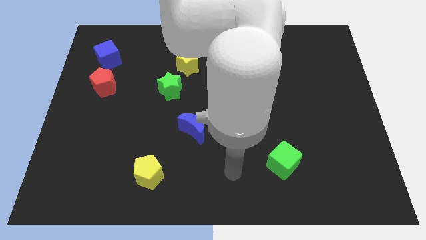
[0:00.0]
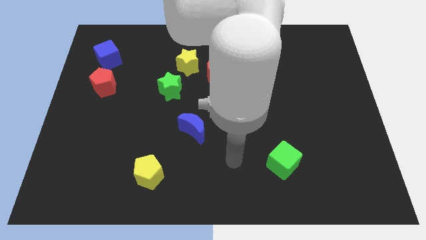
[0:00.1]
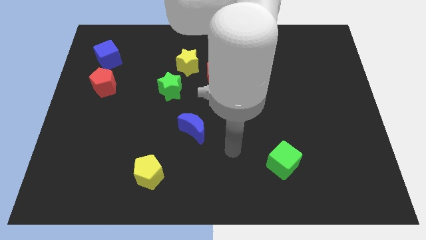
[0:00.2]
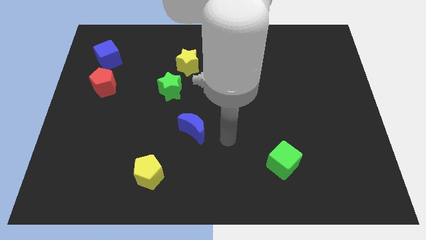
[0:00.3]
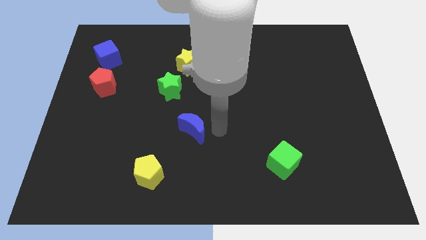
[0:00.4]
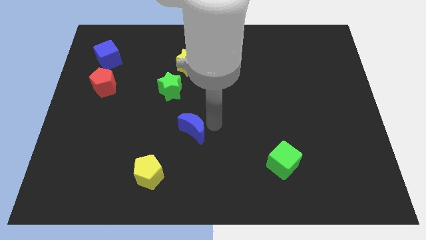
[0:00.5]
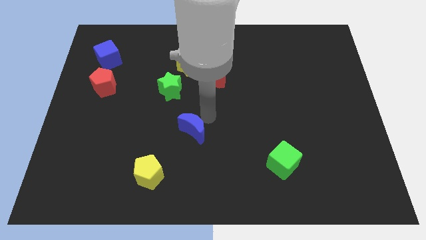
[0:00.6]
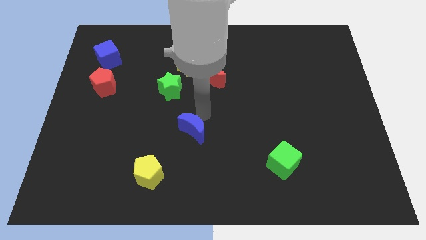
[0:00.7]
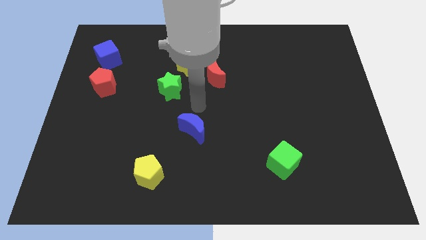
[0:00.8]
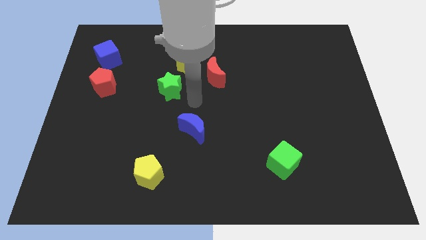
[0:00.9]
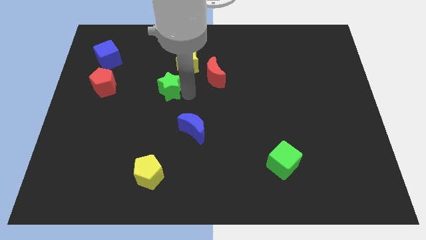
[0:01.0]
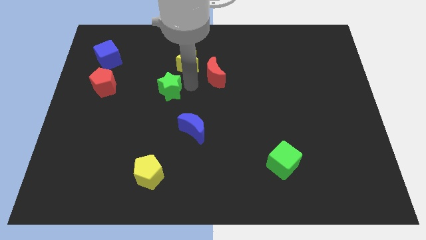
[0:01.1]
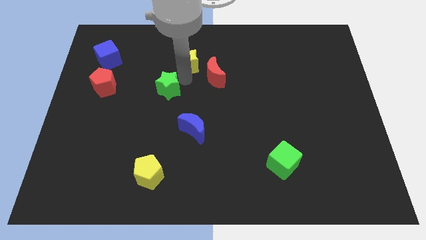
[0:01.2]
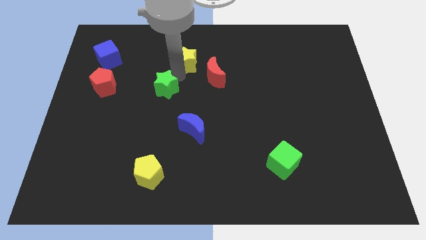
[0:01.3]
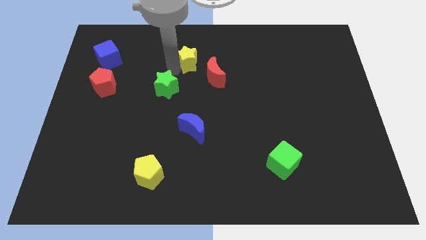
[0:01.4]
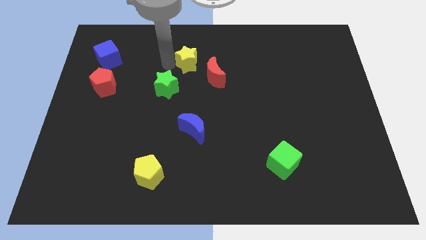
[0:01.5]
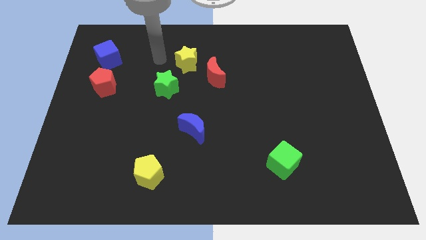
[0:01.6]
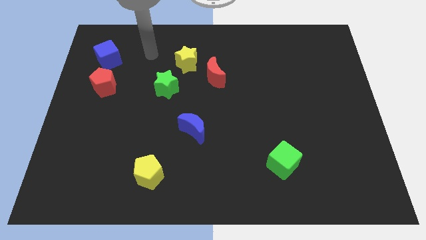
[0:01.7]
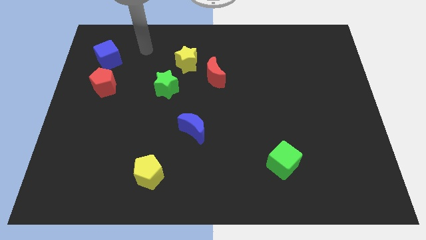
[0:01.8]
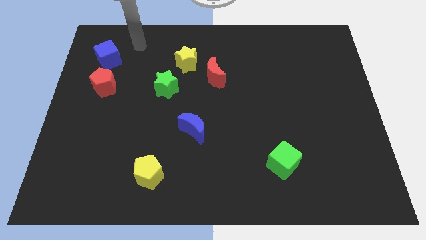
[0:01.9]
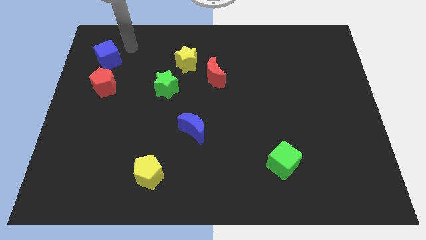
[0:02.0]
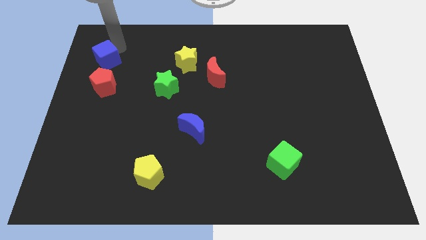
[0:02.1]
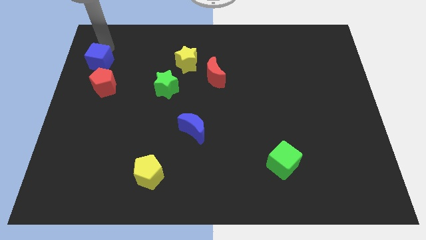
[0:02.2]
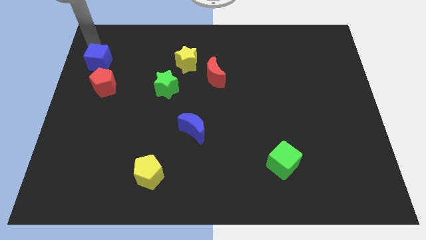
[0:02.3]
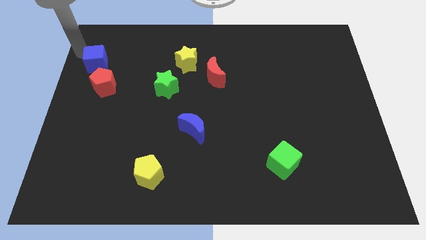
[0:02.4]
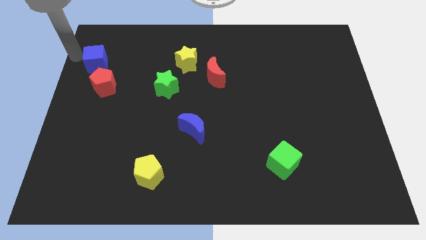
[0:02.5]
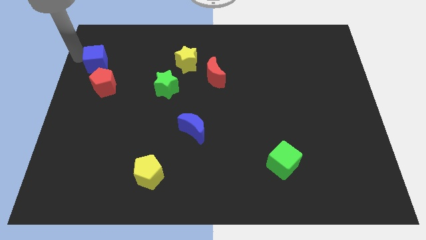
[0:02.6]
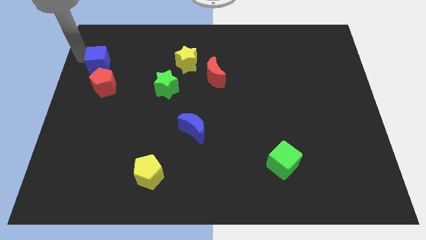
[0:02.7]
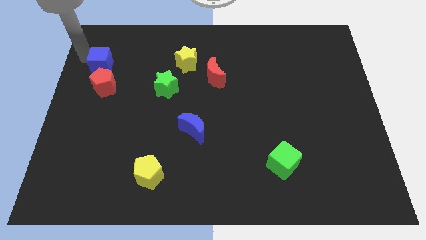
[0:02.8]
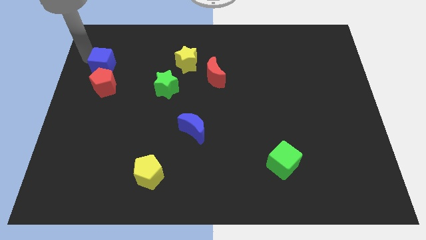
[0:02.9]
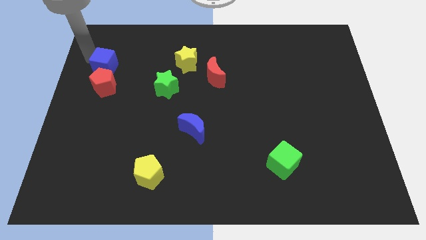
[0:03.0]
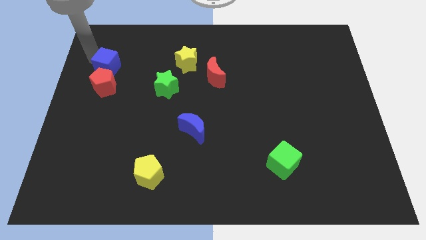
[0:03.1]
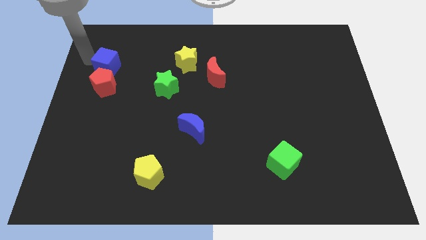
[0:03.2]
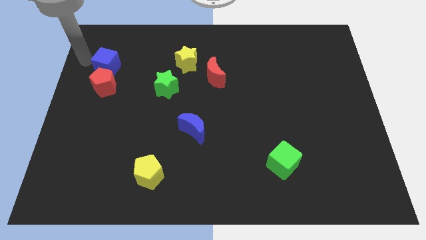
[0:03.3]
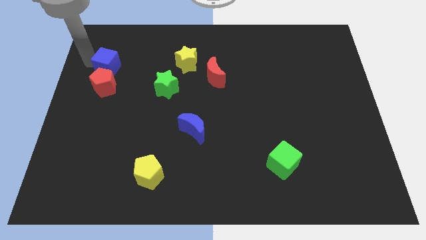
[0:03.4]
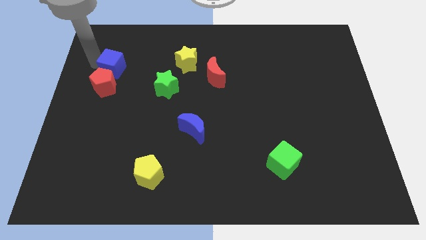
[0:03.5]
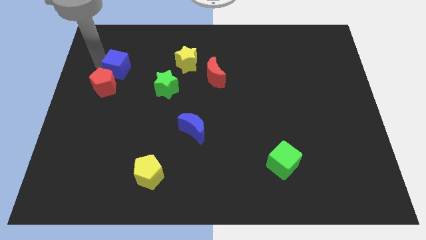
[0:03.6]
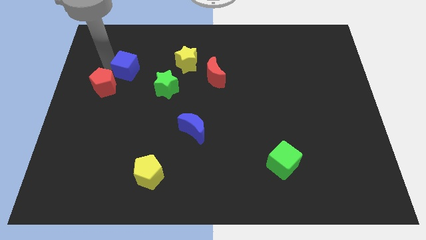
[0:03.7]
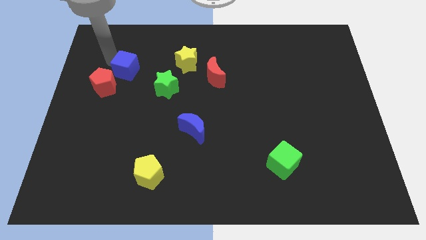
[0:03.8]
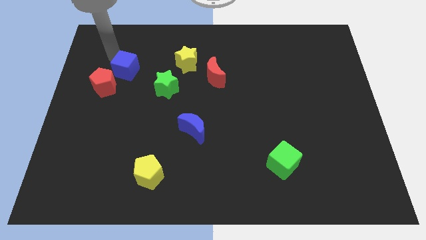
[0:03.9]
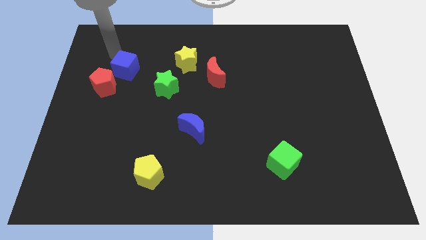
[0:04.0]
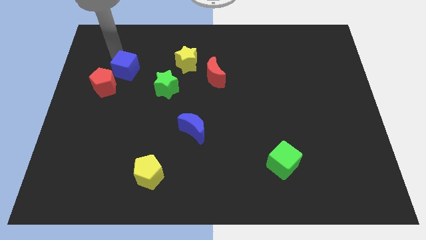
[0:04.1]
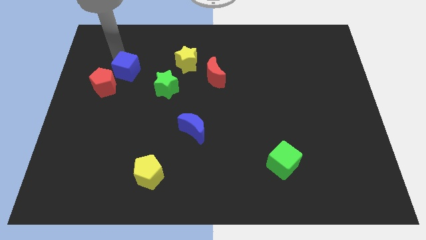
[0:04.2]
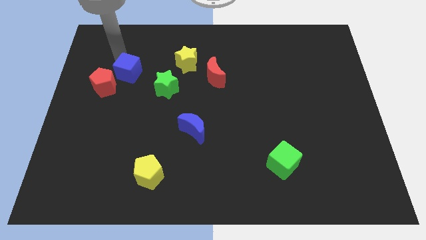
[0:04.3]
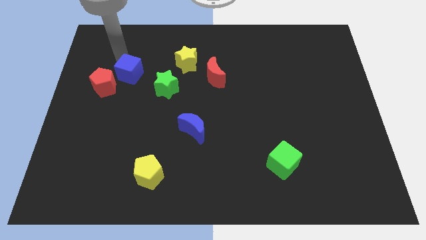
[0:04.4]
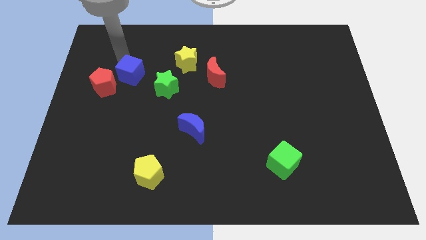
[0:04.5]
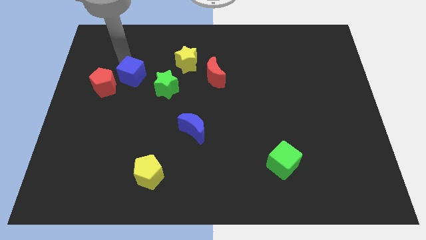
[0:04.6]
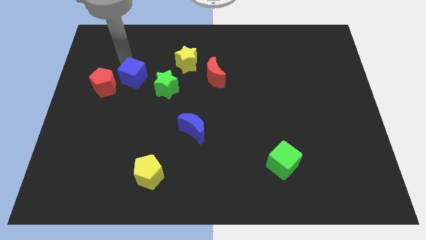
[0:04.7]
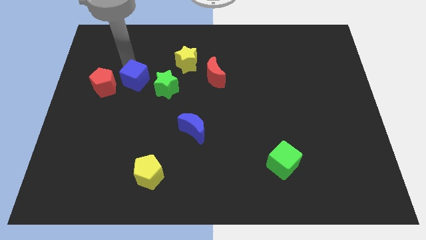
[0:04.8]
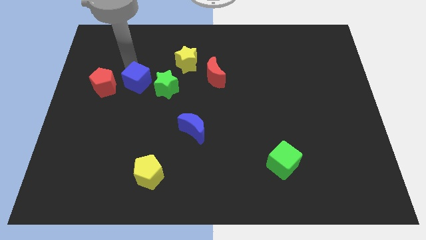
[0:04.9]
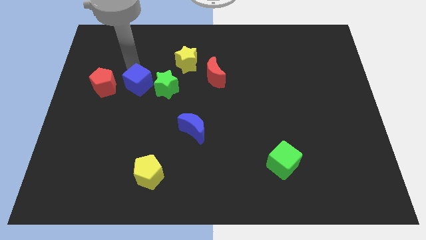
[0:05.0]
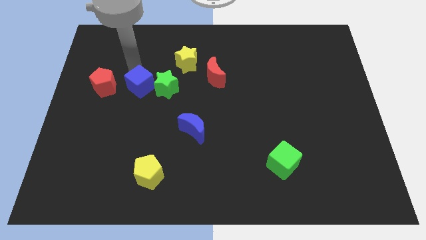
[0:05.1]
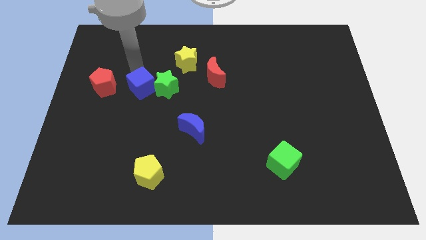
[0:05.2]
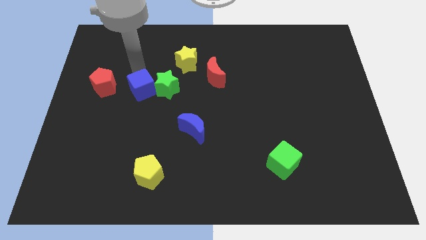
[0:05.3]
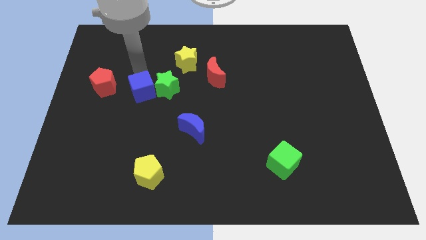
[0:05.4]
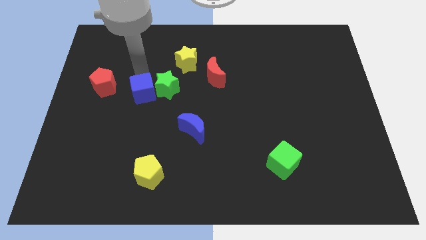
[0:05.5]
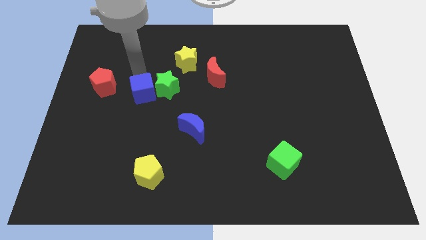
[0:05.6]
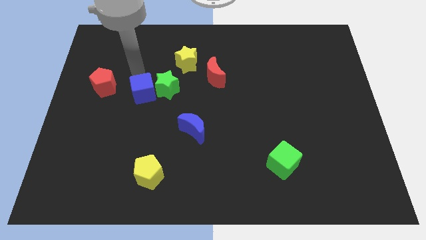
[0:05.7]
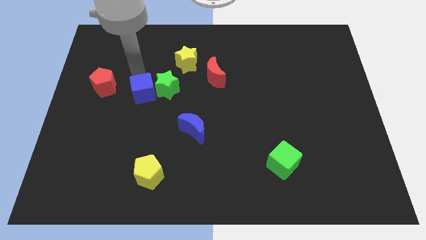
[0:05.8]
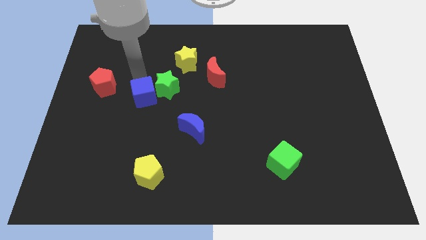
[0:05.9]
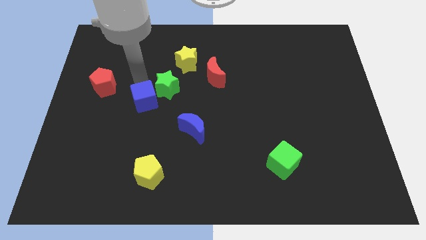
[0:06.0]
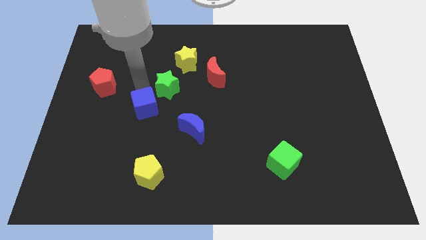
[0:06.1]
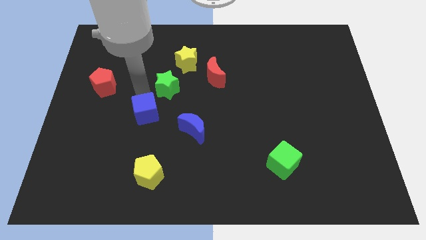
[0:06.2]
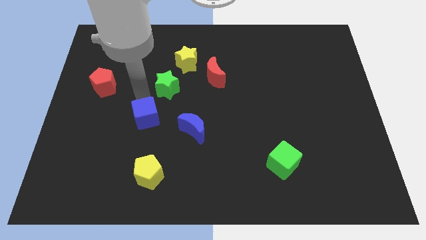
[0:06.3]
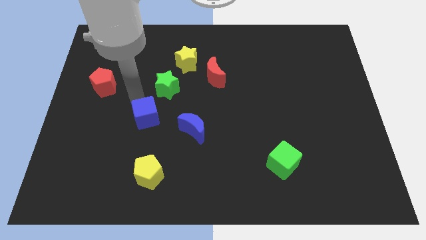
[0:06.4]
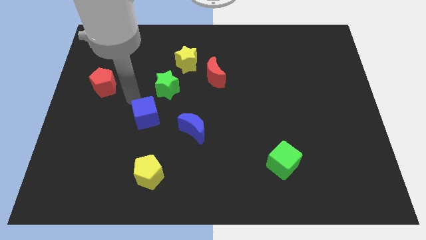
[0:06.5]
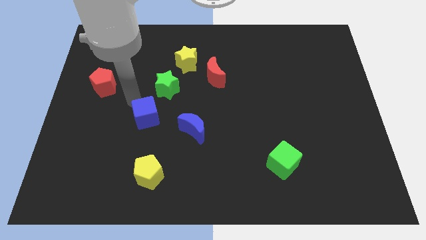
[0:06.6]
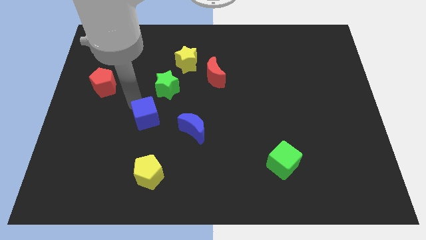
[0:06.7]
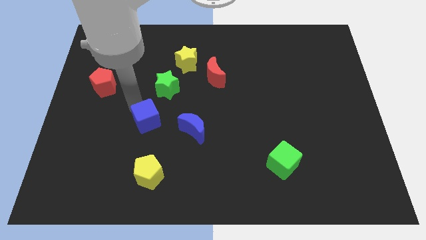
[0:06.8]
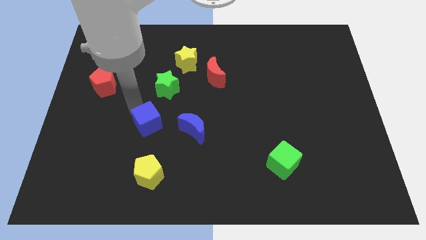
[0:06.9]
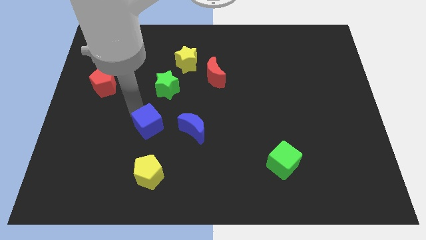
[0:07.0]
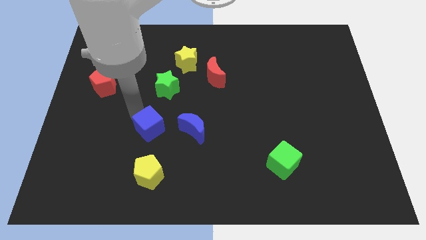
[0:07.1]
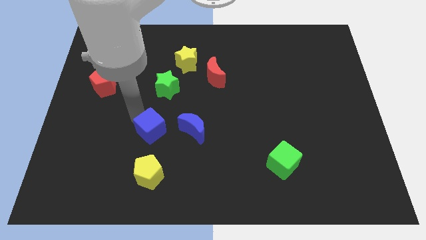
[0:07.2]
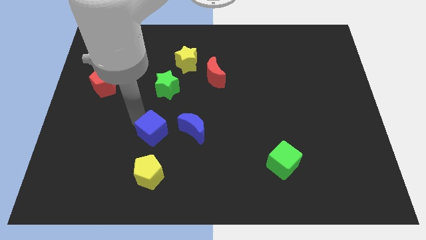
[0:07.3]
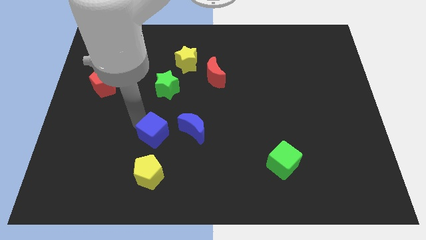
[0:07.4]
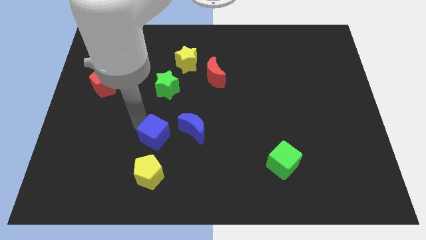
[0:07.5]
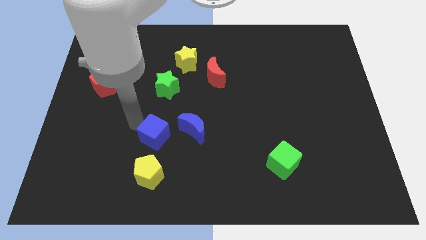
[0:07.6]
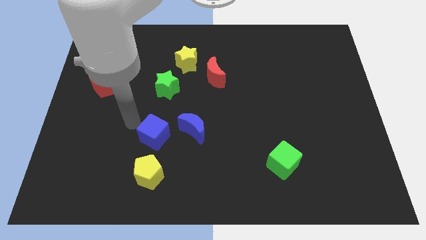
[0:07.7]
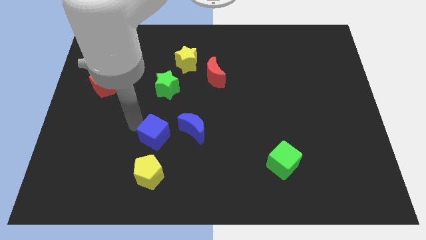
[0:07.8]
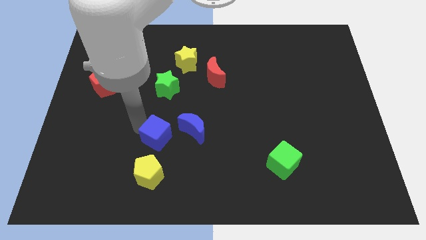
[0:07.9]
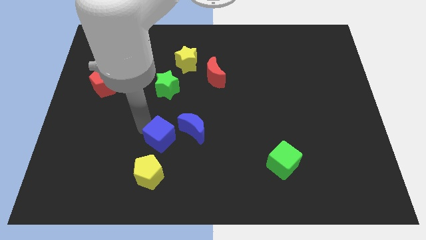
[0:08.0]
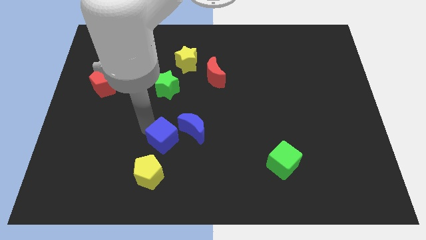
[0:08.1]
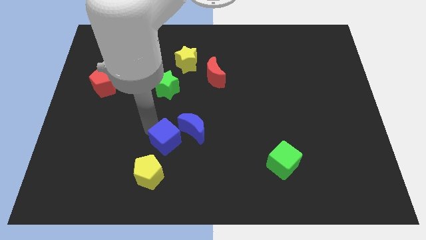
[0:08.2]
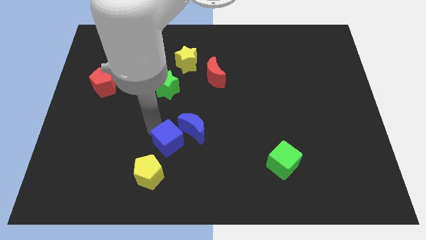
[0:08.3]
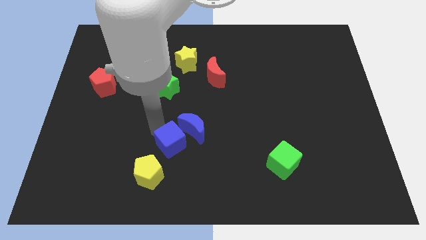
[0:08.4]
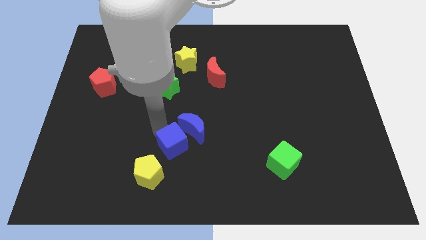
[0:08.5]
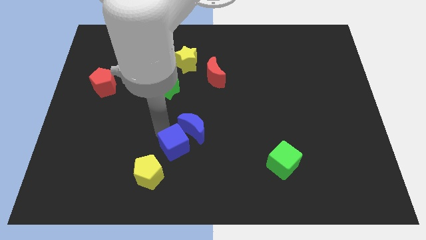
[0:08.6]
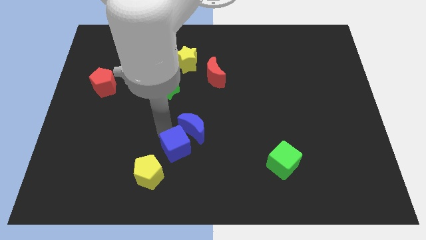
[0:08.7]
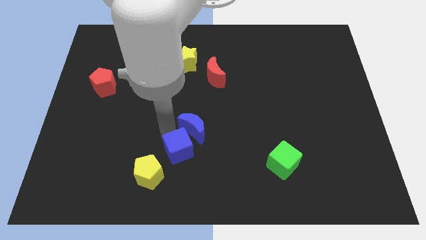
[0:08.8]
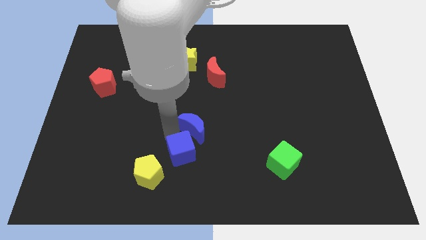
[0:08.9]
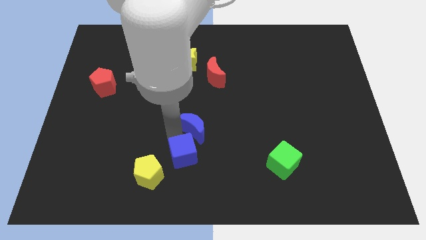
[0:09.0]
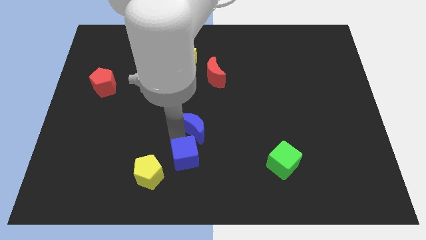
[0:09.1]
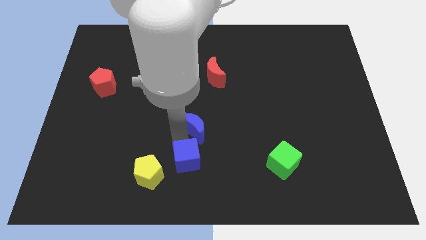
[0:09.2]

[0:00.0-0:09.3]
push the blue cube to the bottom side
